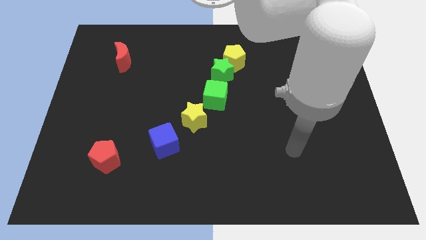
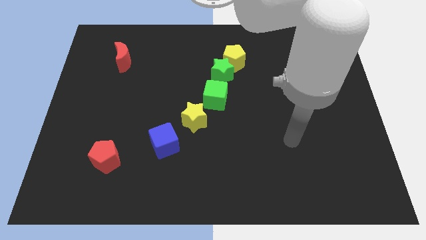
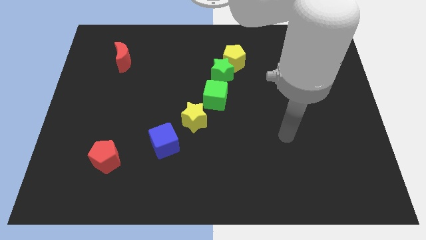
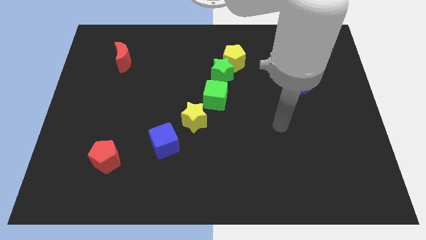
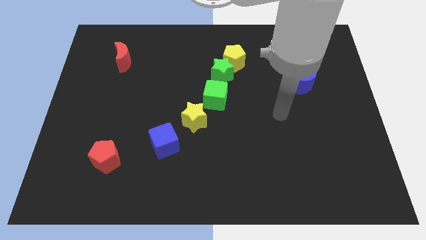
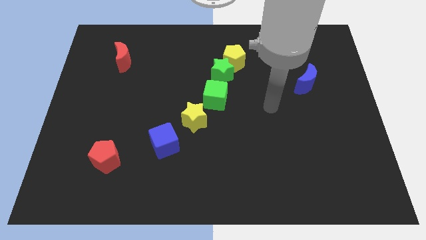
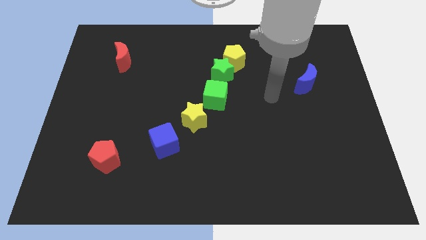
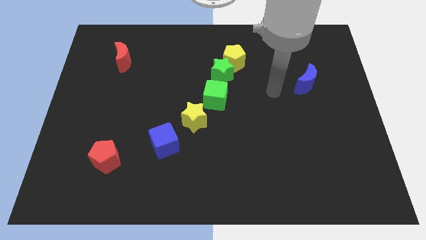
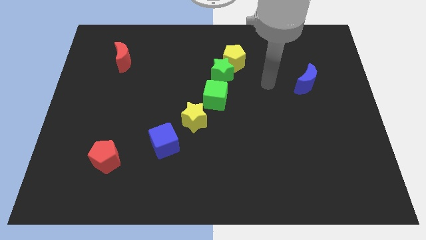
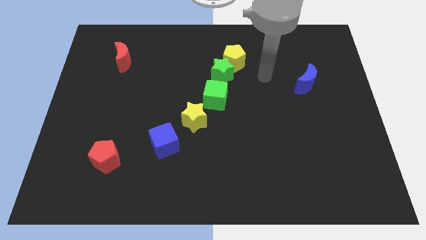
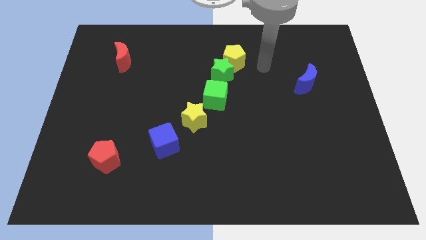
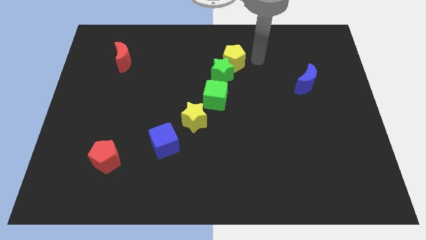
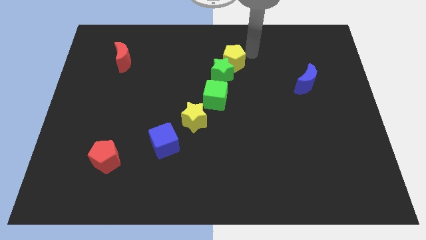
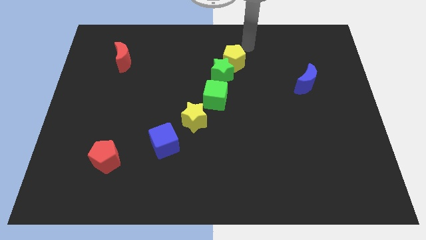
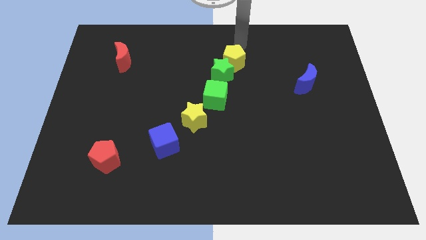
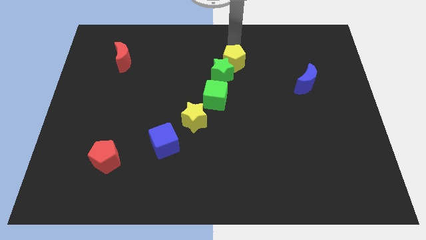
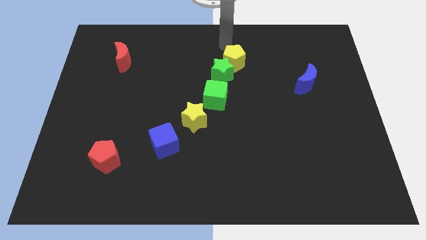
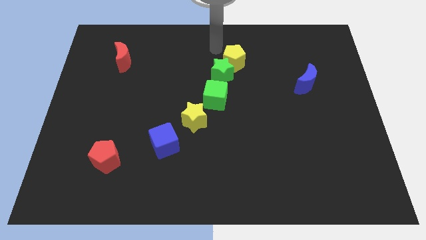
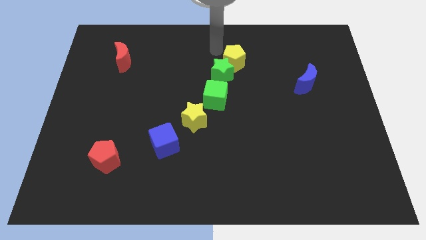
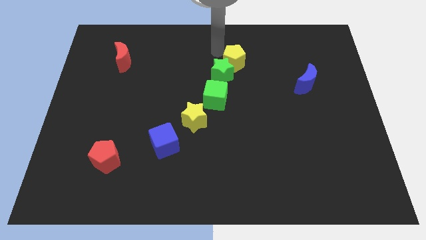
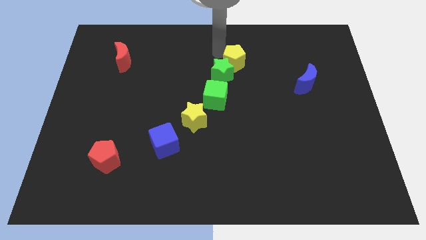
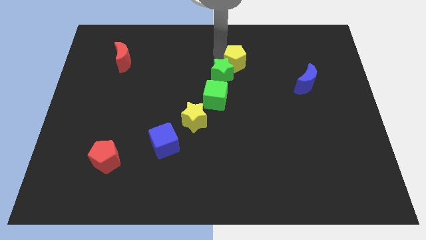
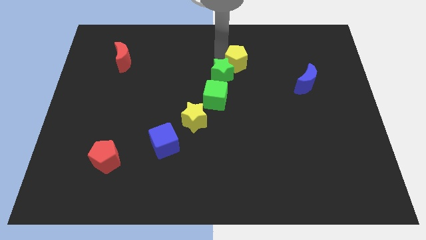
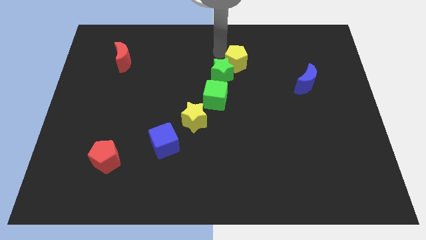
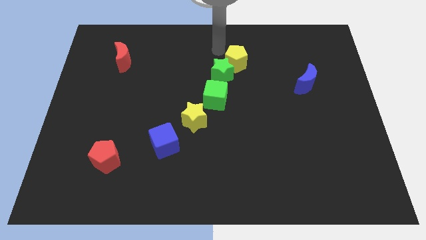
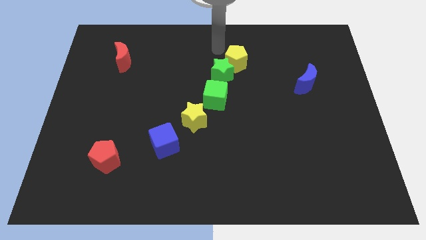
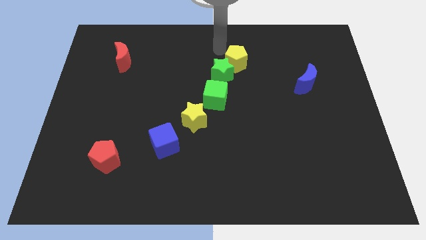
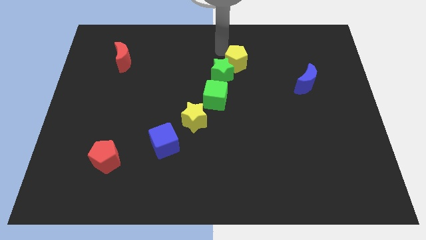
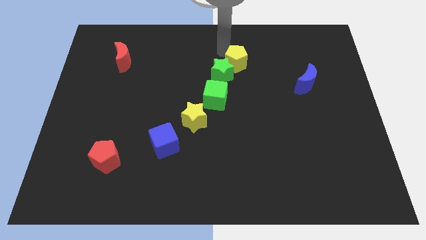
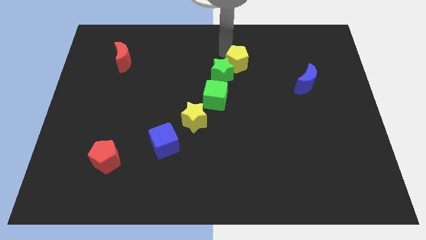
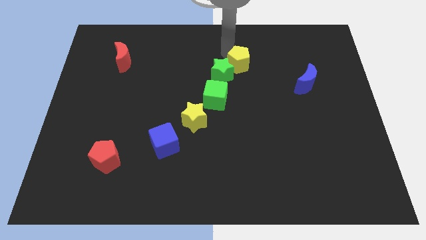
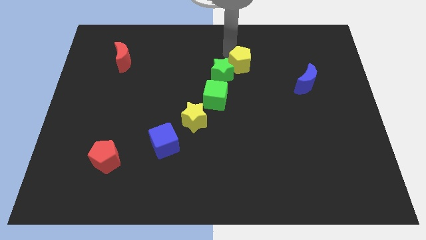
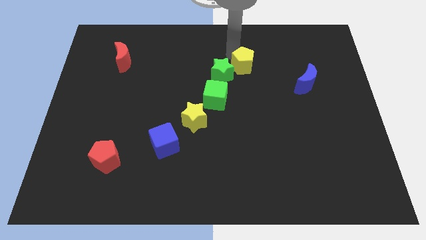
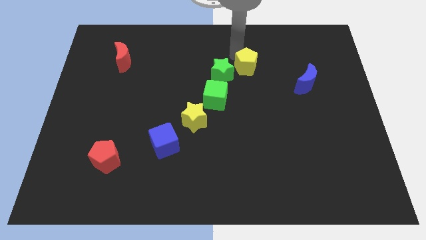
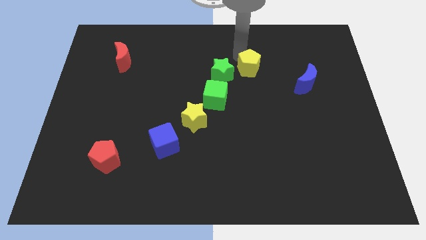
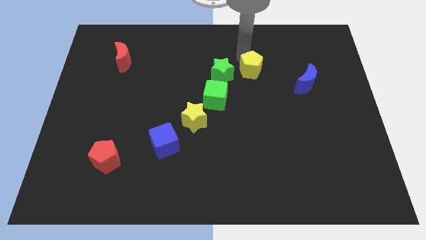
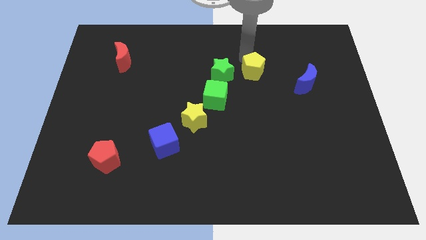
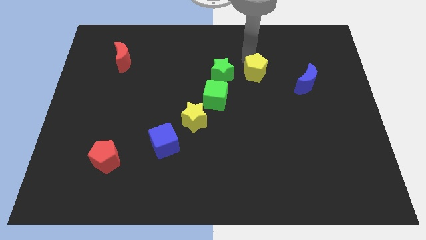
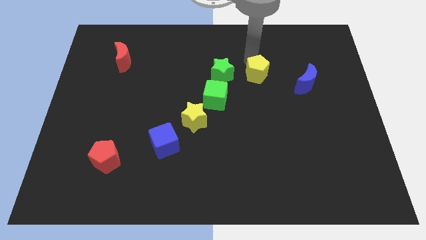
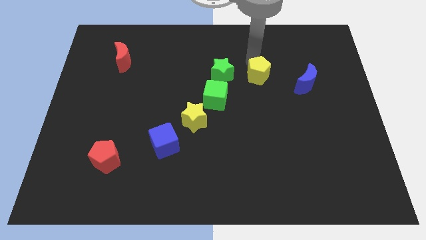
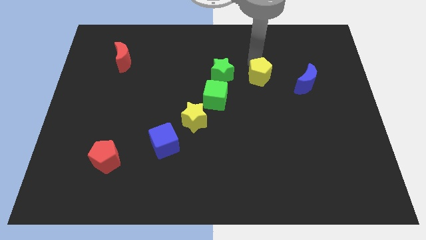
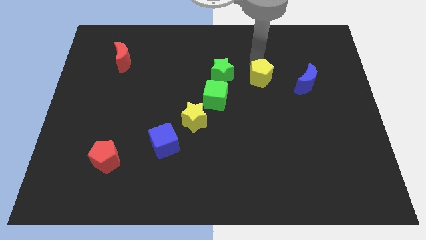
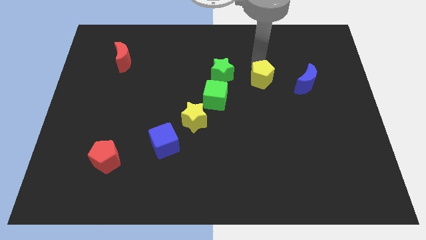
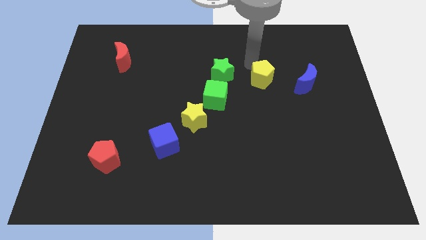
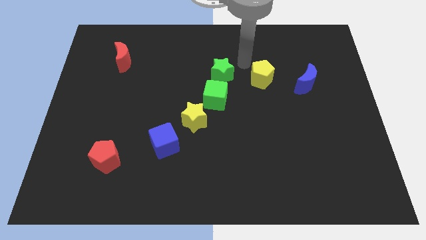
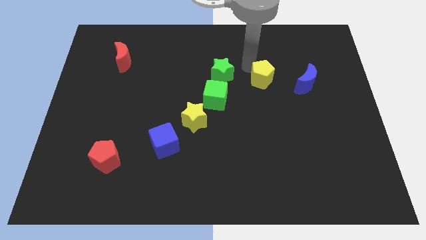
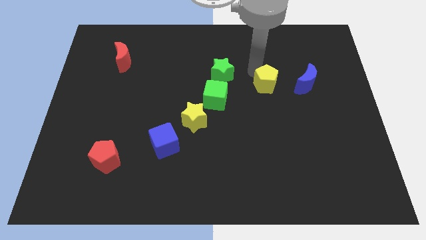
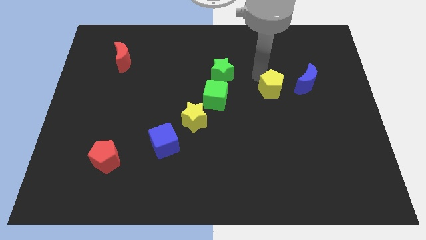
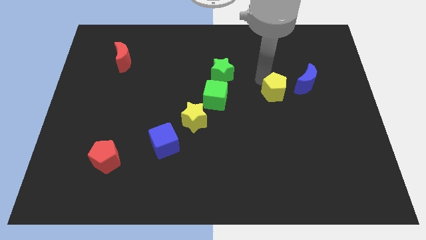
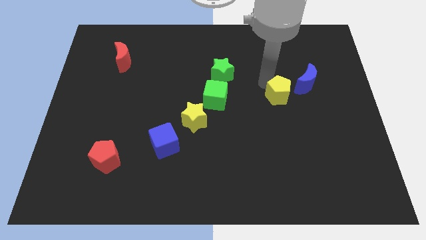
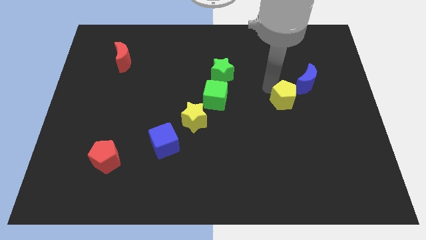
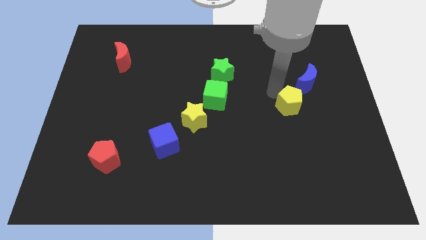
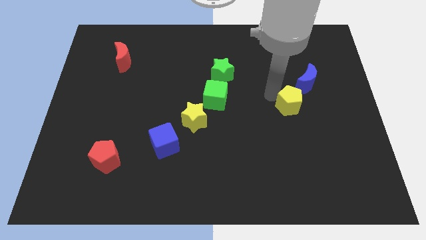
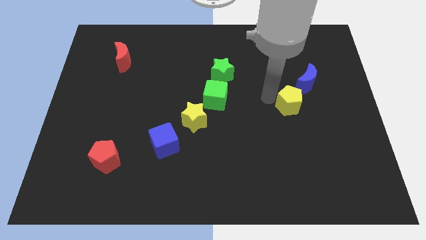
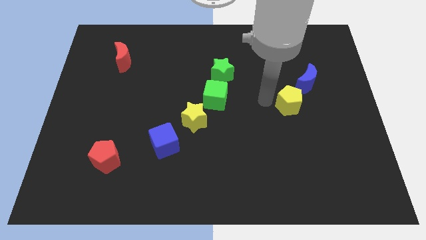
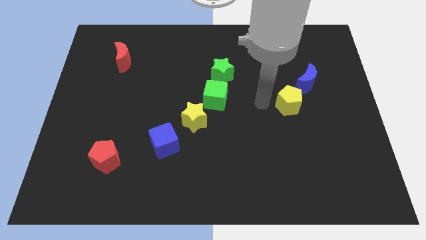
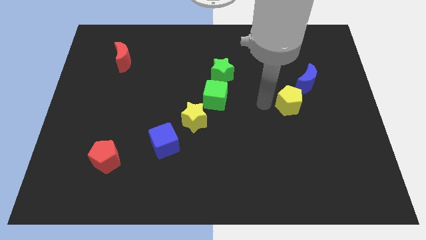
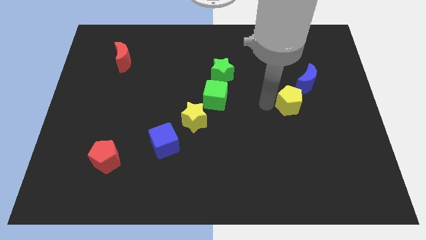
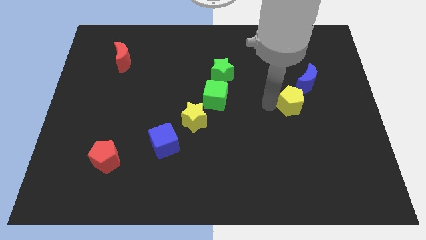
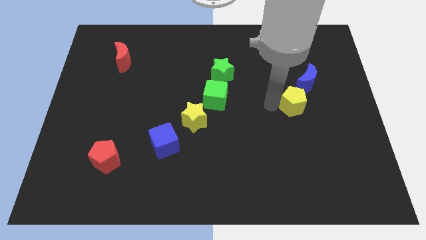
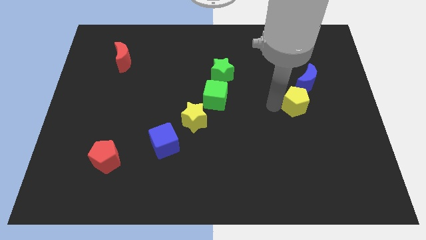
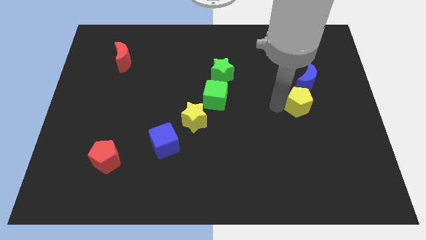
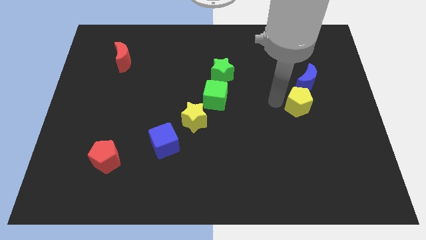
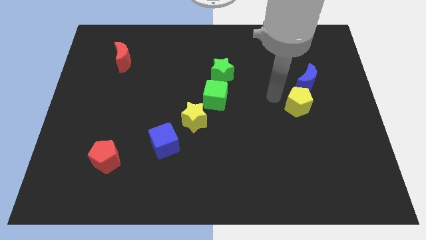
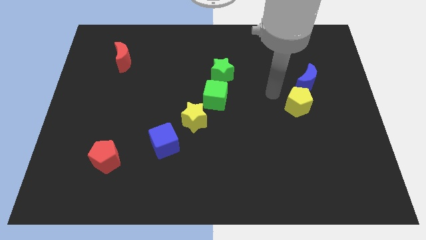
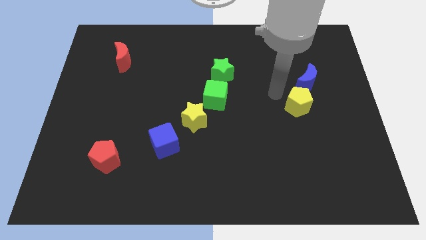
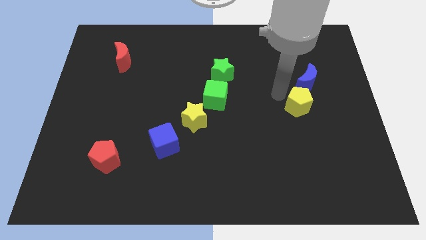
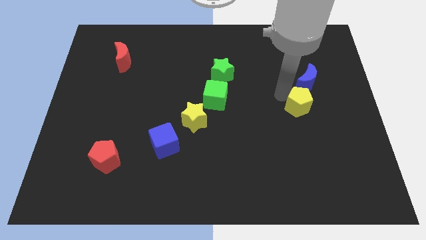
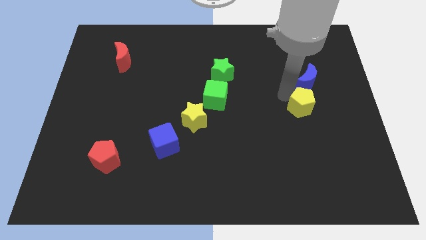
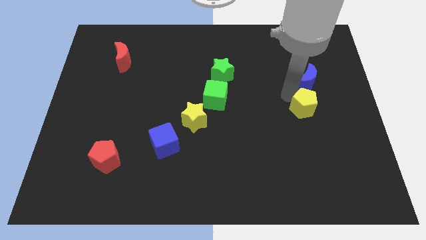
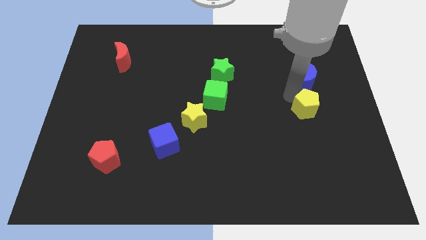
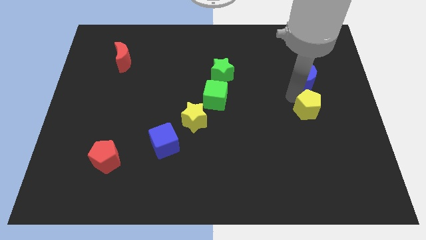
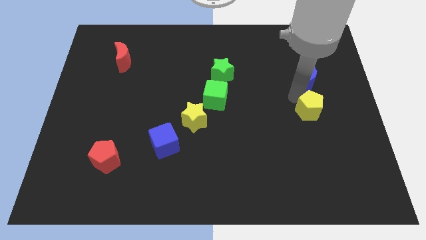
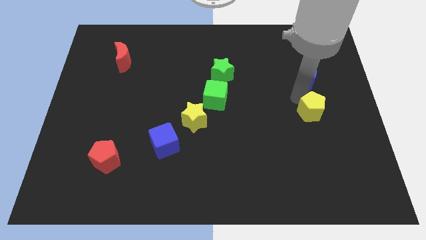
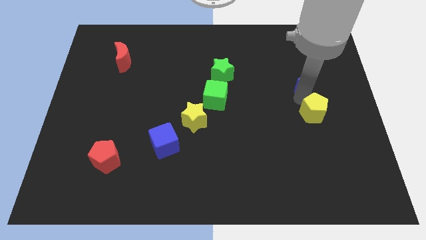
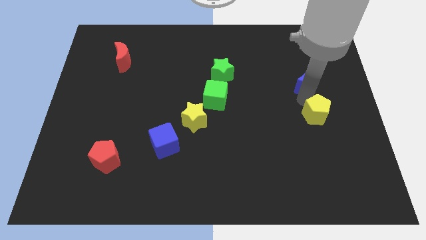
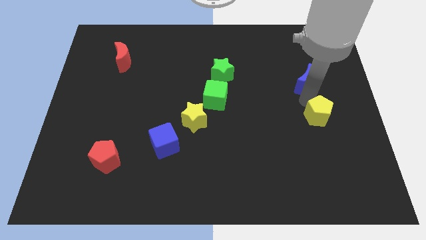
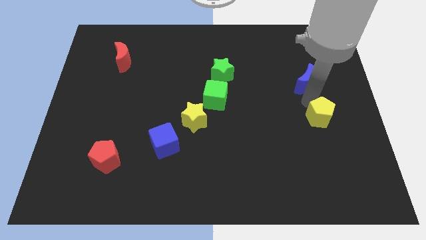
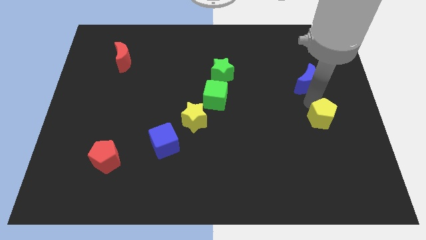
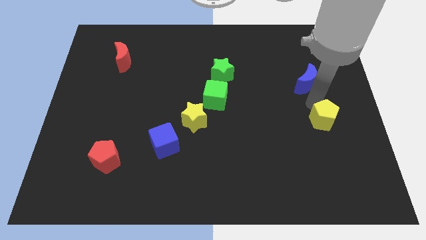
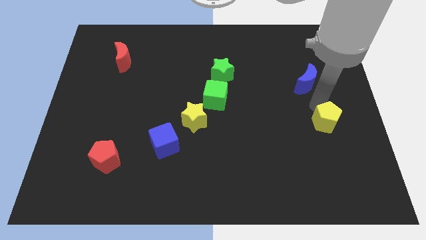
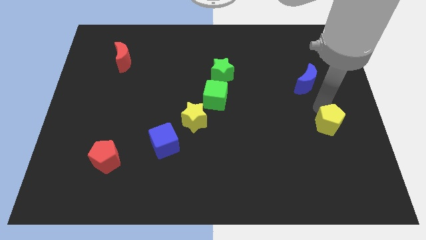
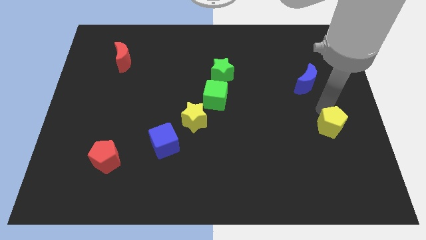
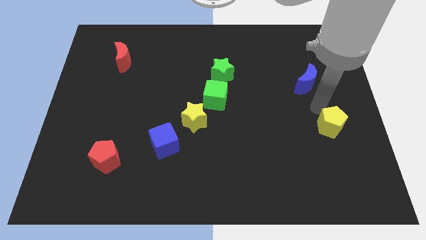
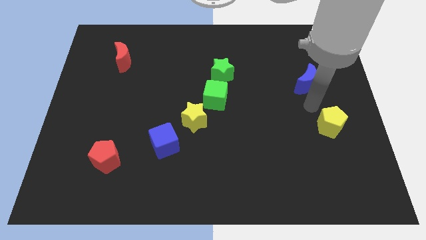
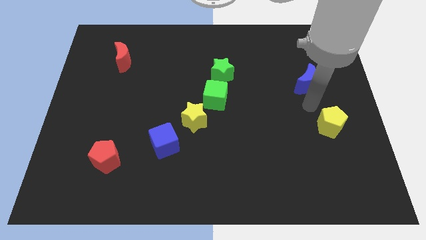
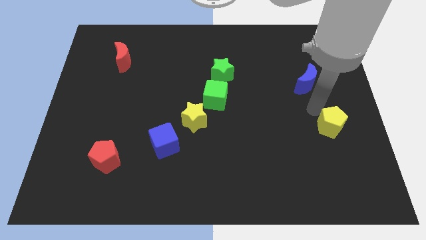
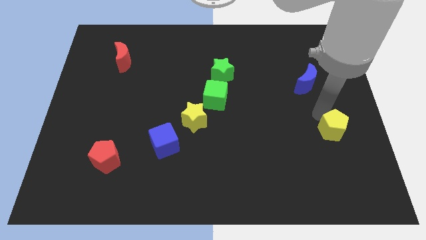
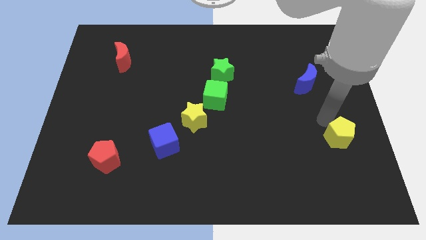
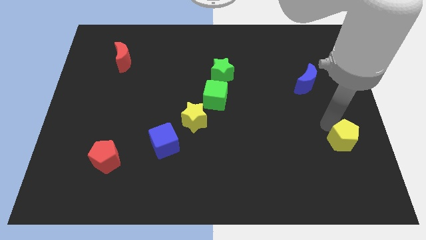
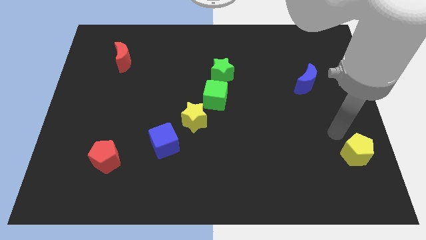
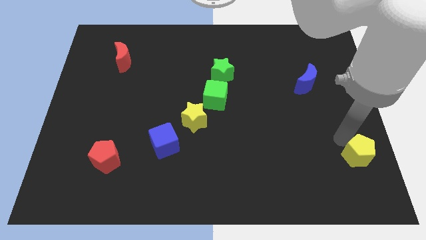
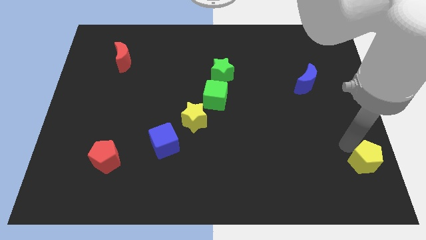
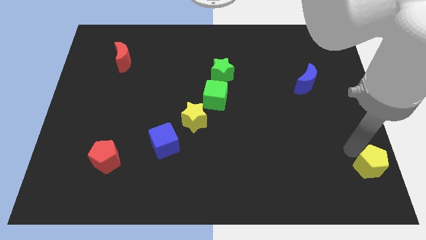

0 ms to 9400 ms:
slide the yellow pentagon to the lower right corner
